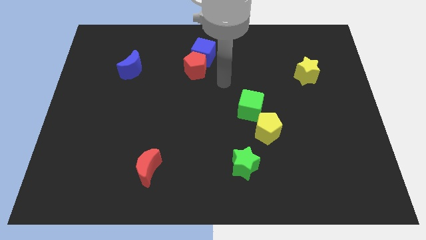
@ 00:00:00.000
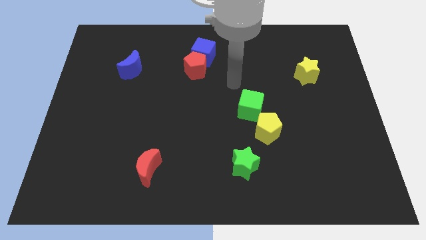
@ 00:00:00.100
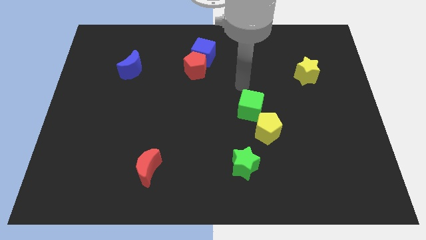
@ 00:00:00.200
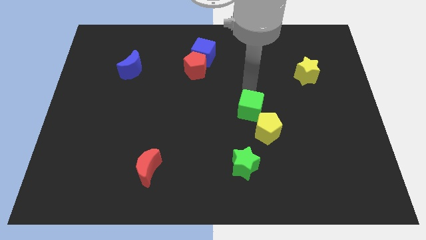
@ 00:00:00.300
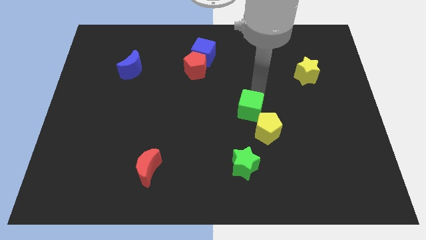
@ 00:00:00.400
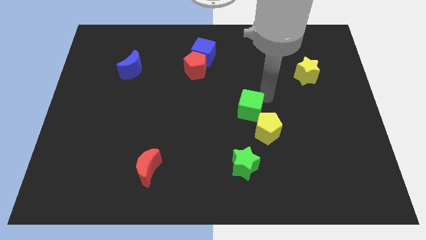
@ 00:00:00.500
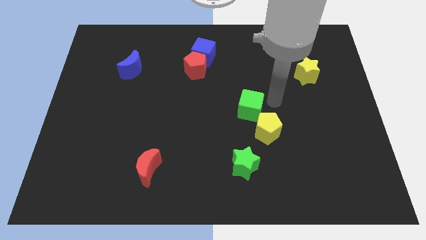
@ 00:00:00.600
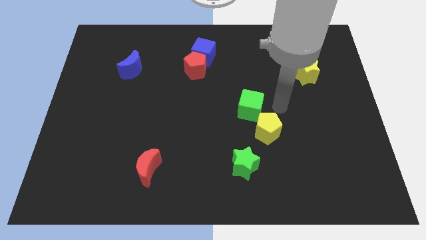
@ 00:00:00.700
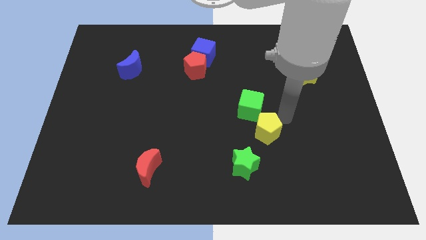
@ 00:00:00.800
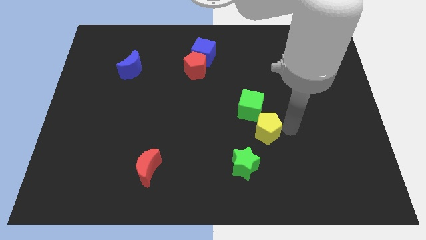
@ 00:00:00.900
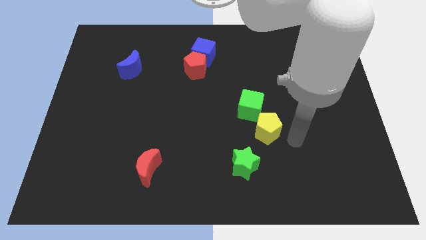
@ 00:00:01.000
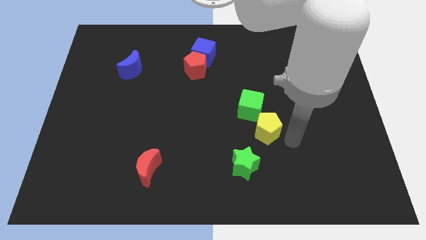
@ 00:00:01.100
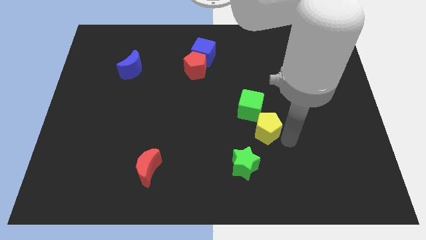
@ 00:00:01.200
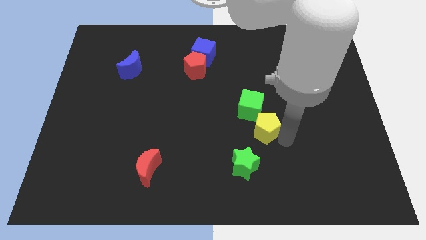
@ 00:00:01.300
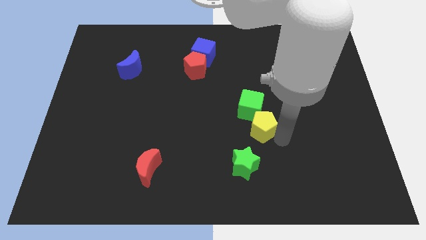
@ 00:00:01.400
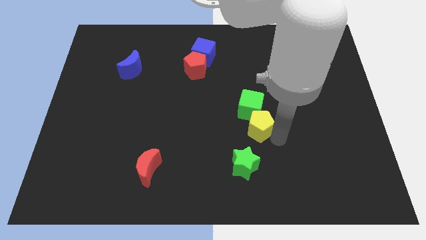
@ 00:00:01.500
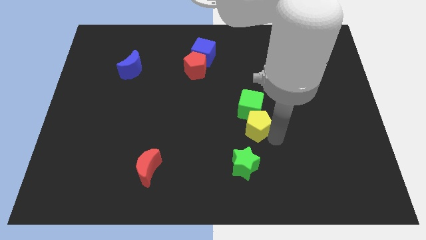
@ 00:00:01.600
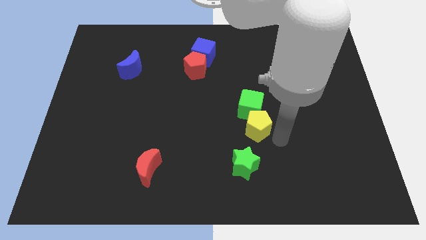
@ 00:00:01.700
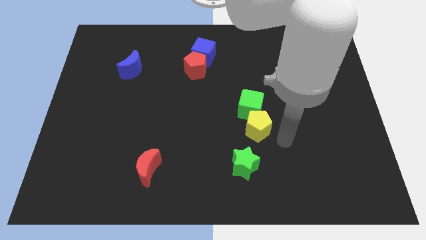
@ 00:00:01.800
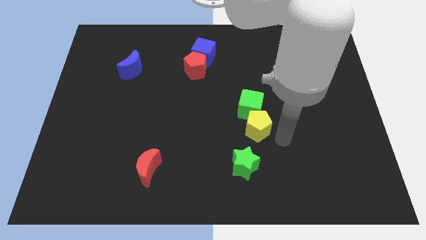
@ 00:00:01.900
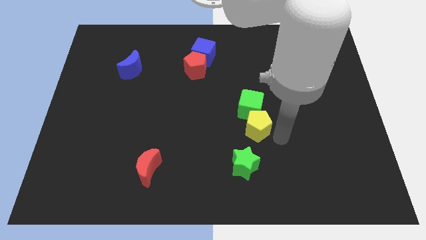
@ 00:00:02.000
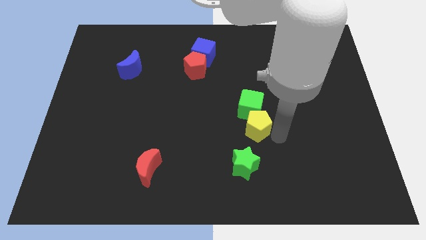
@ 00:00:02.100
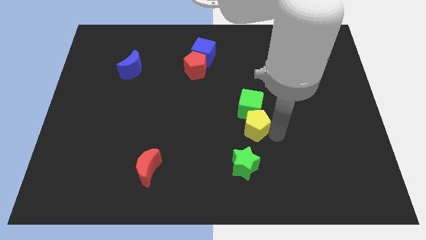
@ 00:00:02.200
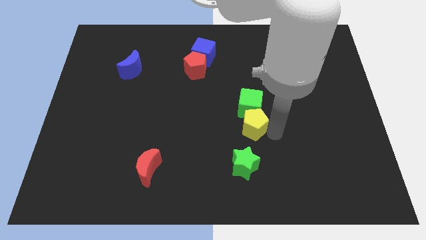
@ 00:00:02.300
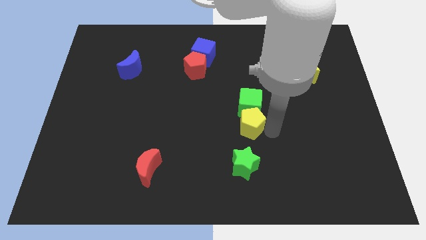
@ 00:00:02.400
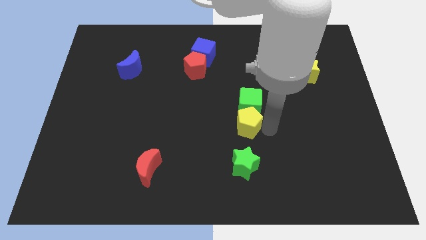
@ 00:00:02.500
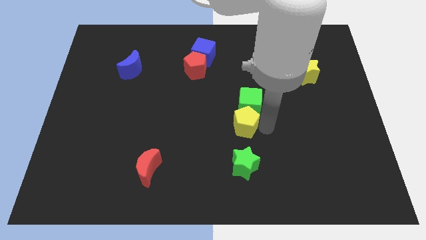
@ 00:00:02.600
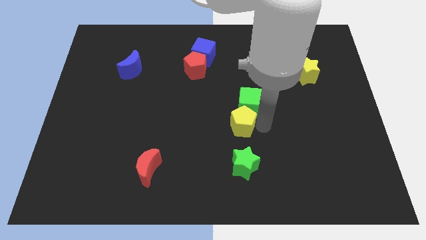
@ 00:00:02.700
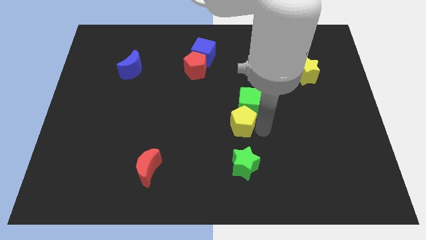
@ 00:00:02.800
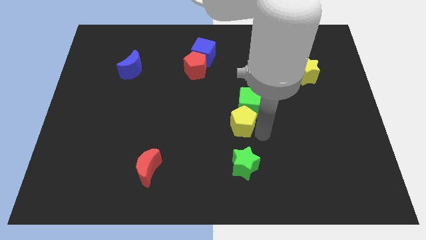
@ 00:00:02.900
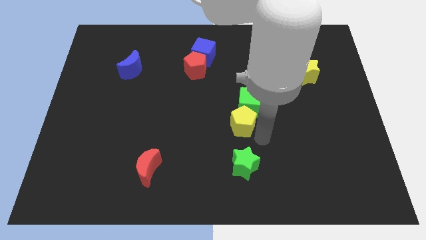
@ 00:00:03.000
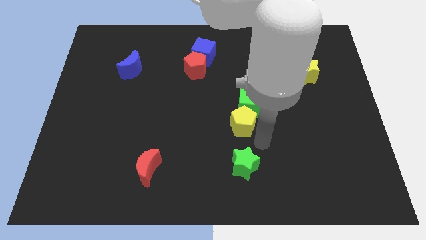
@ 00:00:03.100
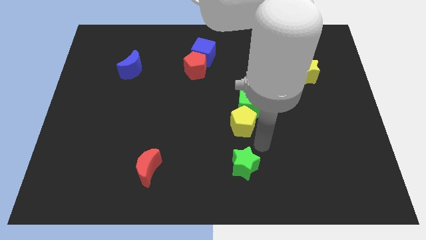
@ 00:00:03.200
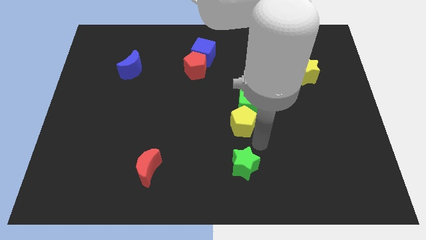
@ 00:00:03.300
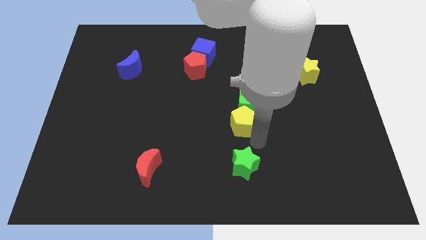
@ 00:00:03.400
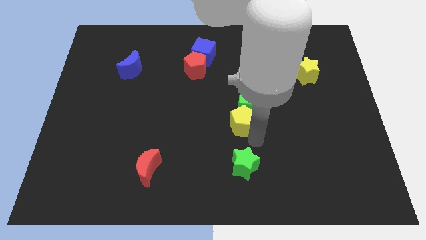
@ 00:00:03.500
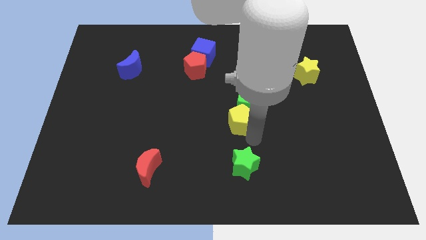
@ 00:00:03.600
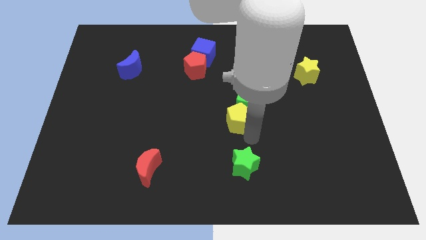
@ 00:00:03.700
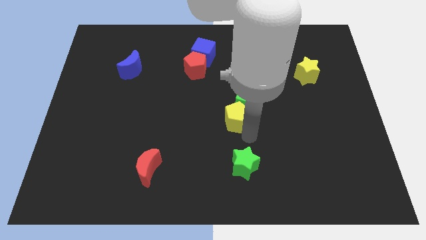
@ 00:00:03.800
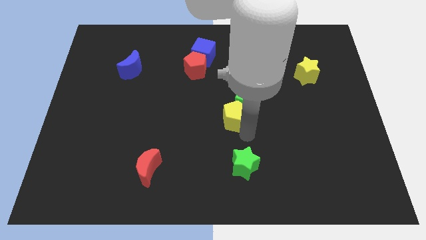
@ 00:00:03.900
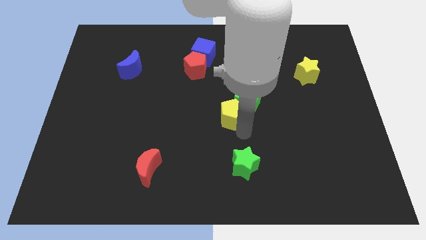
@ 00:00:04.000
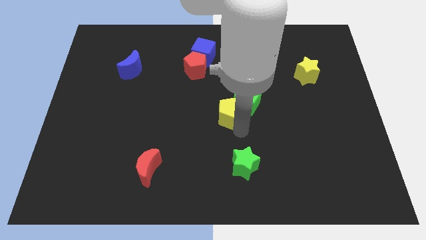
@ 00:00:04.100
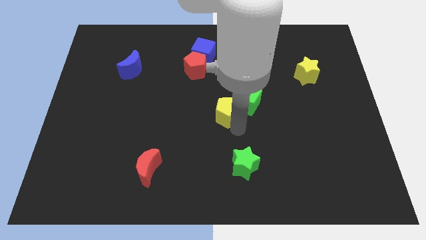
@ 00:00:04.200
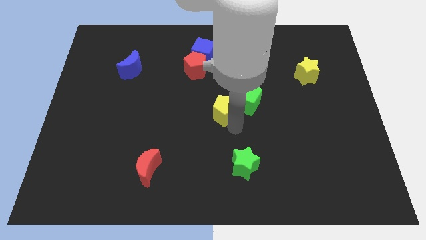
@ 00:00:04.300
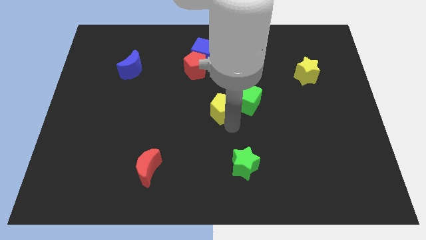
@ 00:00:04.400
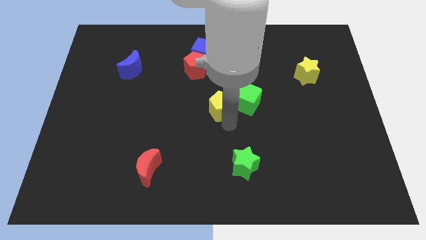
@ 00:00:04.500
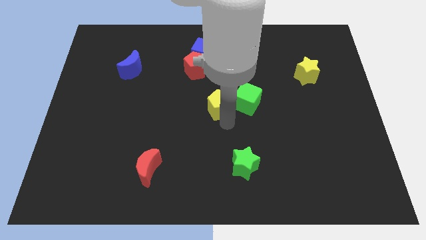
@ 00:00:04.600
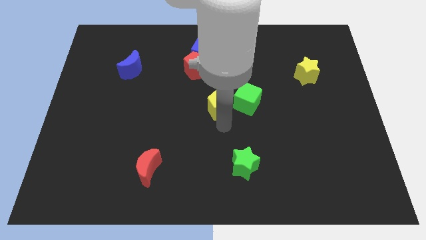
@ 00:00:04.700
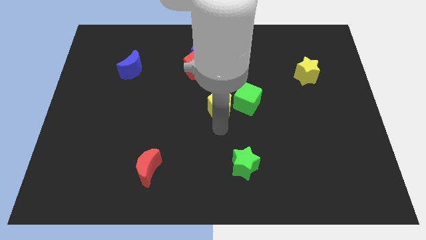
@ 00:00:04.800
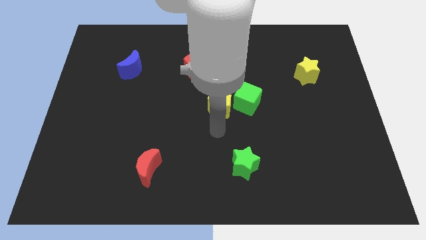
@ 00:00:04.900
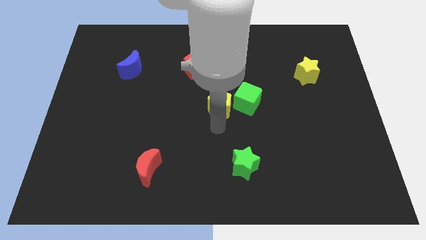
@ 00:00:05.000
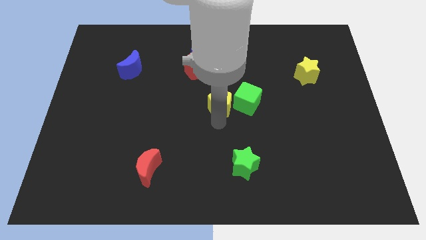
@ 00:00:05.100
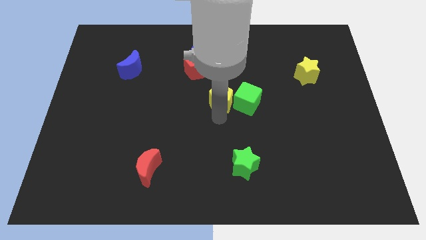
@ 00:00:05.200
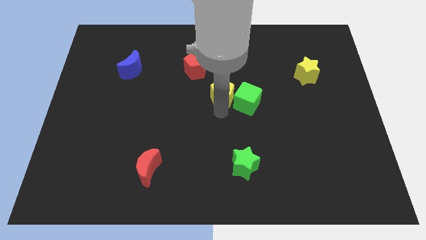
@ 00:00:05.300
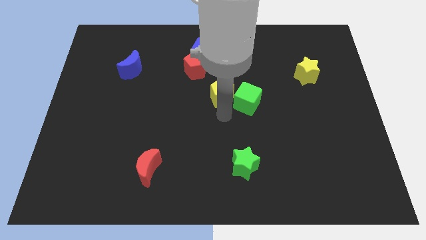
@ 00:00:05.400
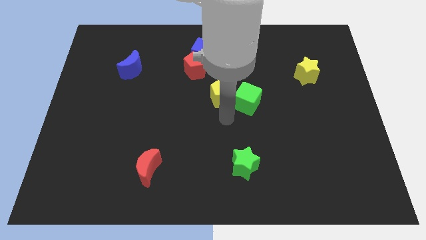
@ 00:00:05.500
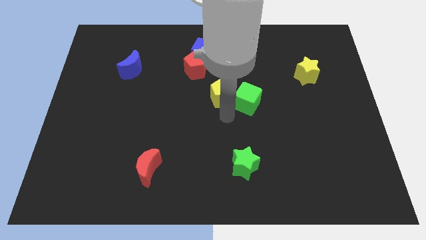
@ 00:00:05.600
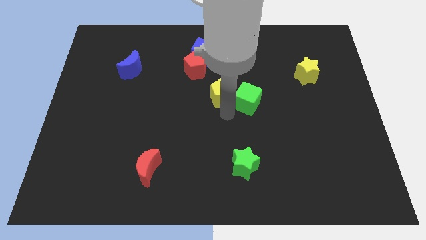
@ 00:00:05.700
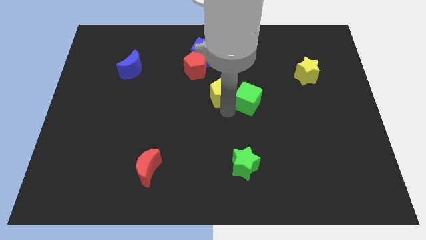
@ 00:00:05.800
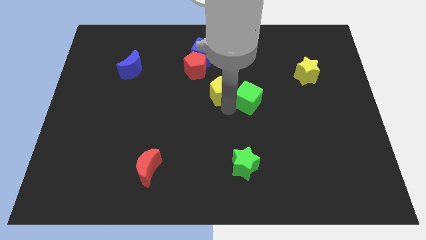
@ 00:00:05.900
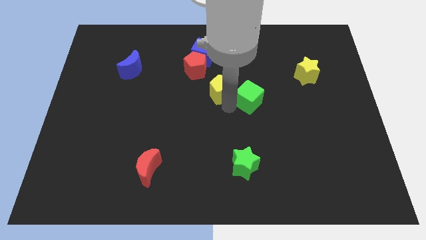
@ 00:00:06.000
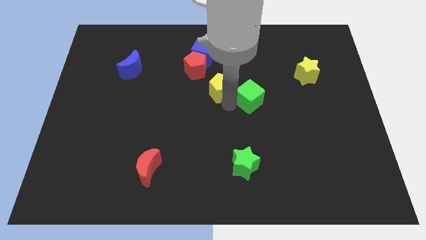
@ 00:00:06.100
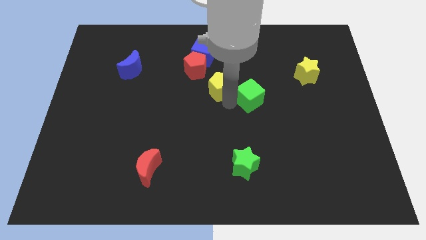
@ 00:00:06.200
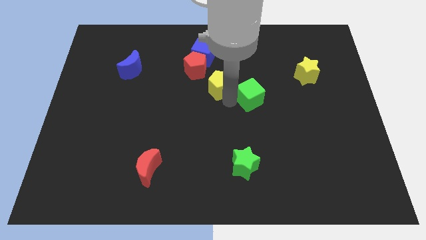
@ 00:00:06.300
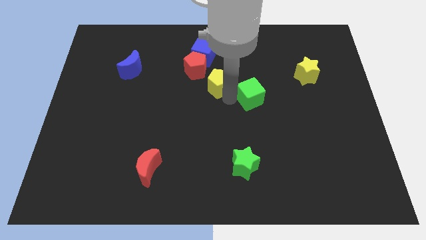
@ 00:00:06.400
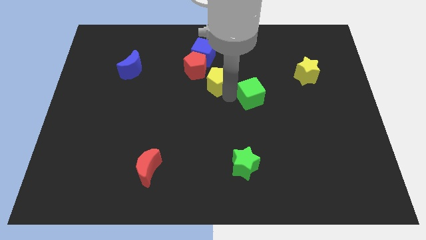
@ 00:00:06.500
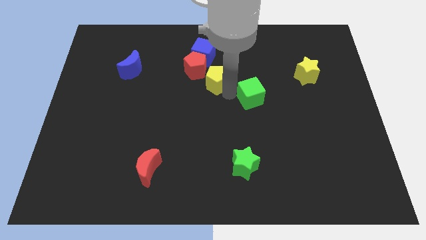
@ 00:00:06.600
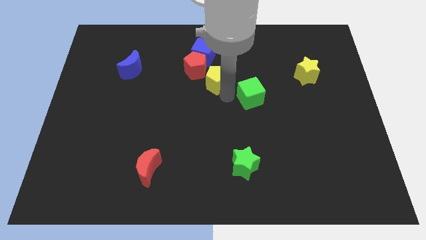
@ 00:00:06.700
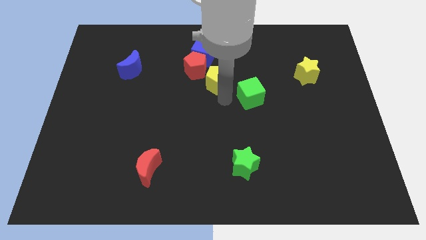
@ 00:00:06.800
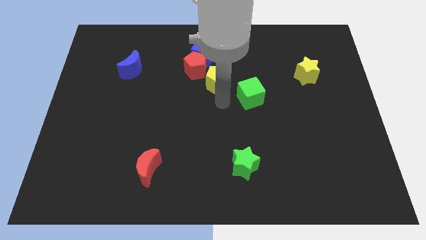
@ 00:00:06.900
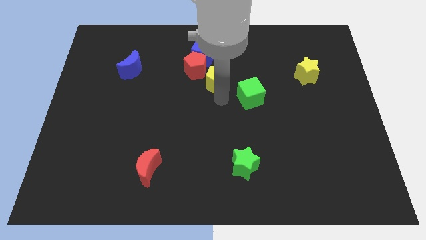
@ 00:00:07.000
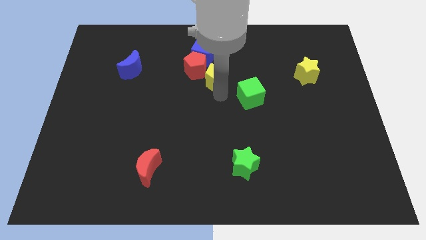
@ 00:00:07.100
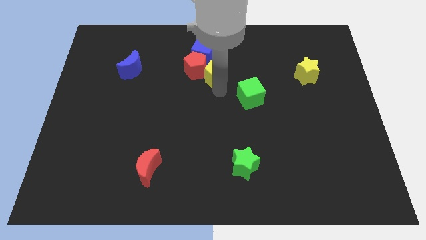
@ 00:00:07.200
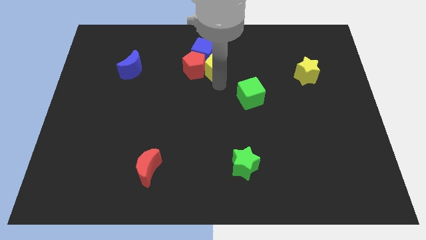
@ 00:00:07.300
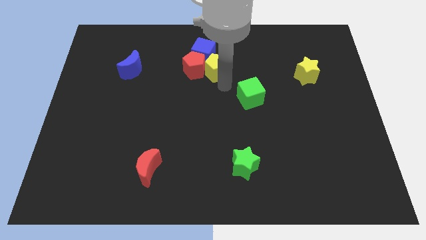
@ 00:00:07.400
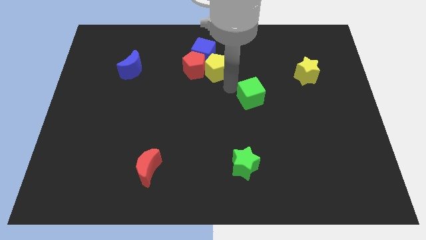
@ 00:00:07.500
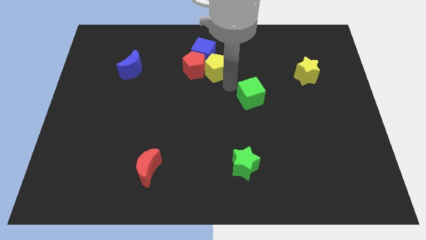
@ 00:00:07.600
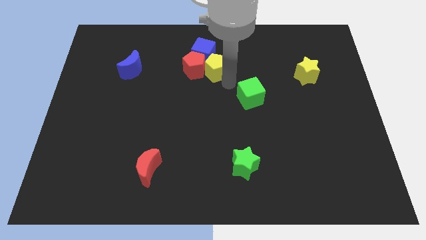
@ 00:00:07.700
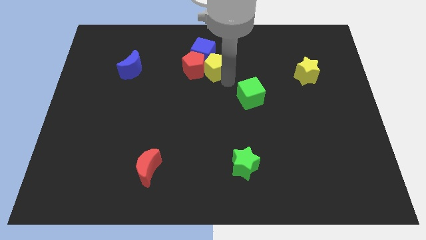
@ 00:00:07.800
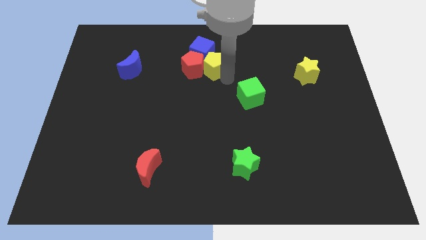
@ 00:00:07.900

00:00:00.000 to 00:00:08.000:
slide the yellow pentagon next to the blue cube
